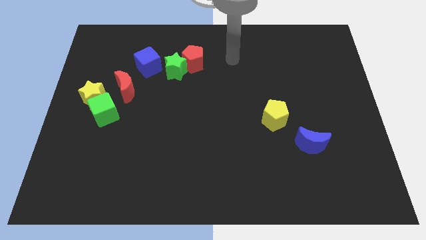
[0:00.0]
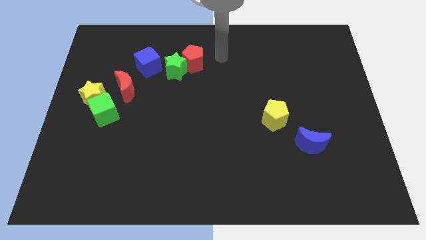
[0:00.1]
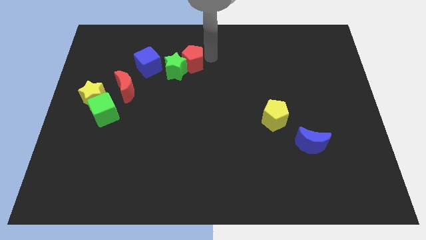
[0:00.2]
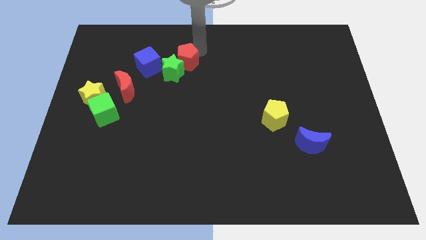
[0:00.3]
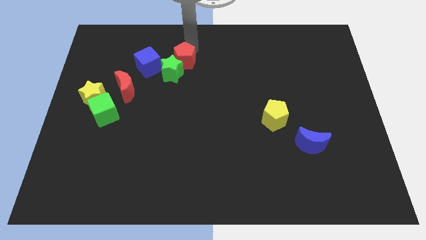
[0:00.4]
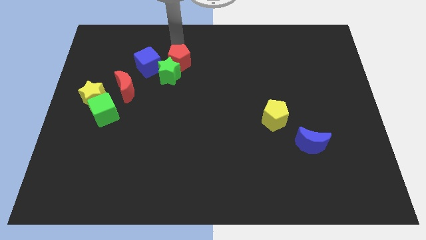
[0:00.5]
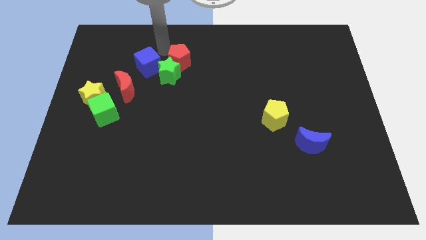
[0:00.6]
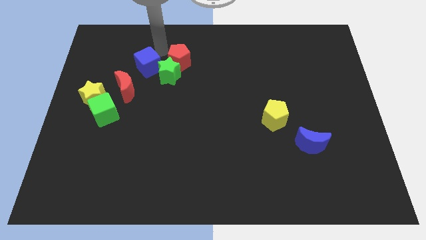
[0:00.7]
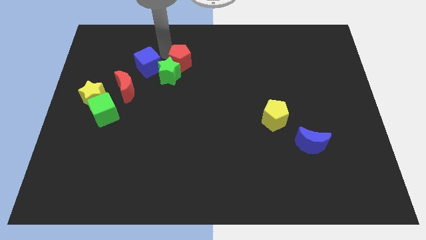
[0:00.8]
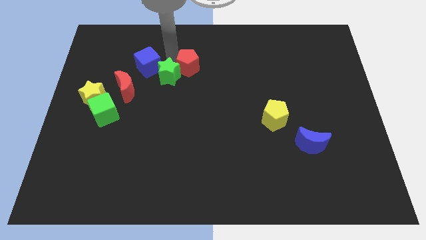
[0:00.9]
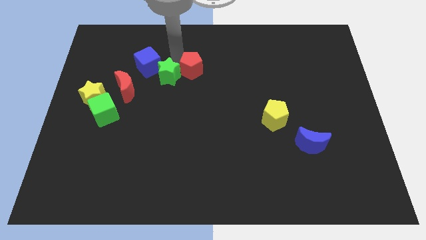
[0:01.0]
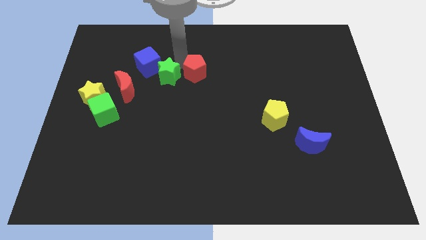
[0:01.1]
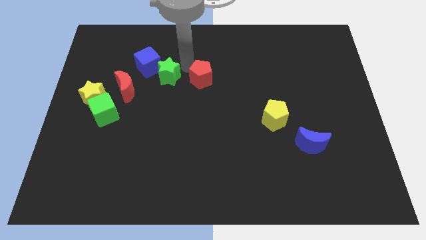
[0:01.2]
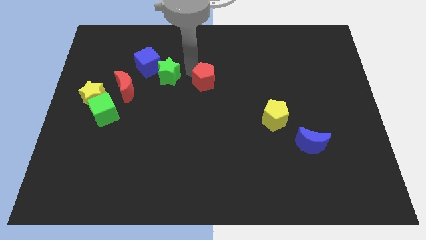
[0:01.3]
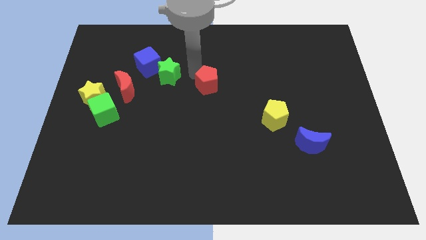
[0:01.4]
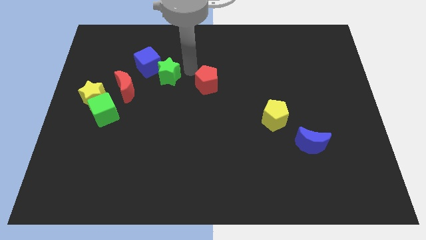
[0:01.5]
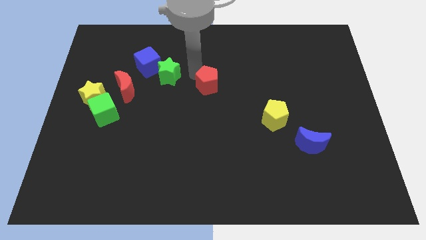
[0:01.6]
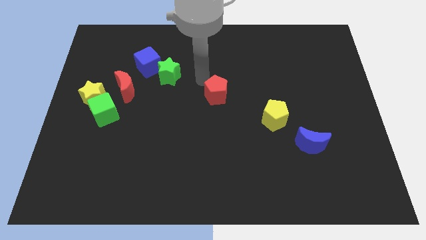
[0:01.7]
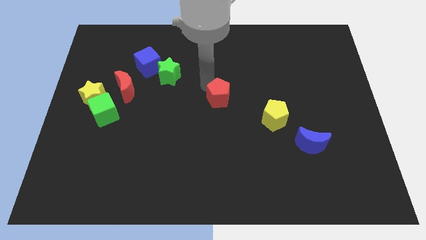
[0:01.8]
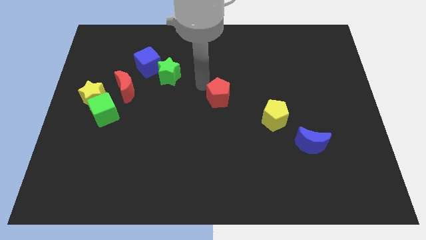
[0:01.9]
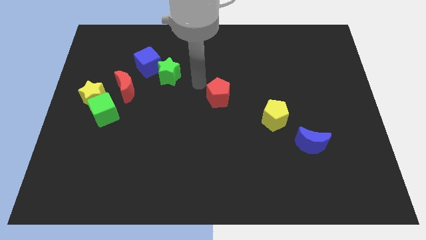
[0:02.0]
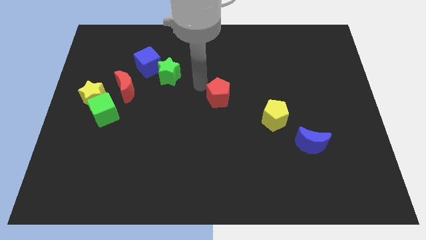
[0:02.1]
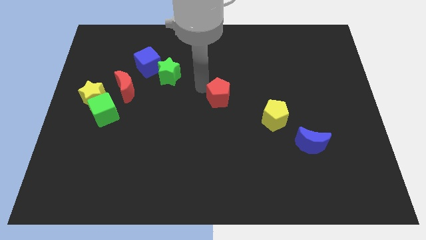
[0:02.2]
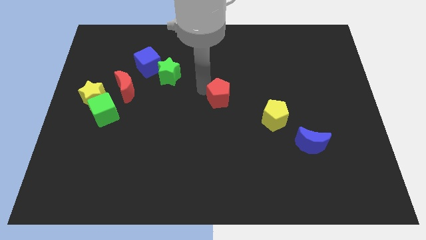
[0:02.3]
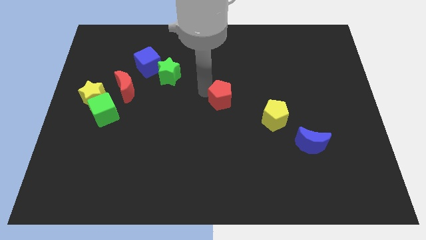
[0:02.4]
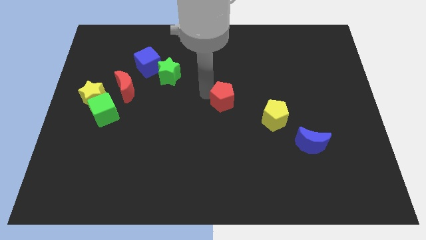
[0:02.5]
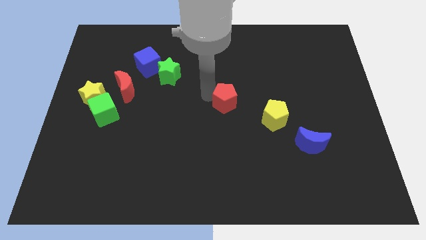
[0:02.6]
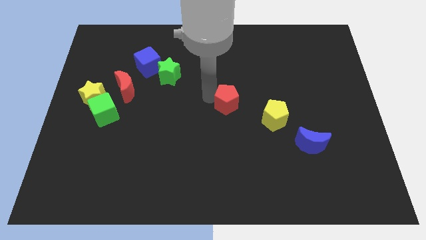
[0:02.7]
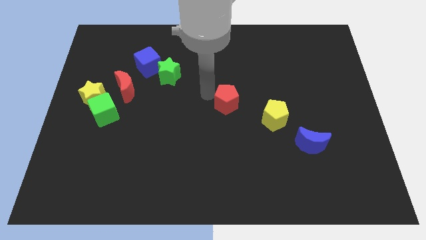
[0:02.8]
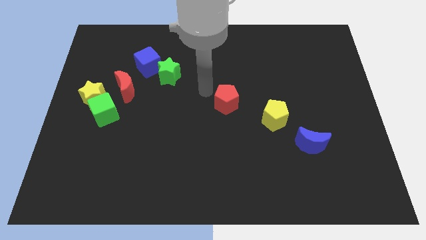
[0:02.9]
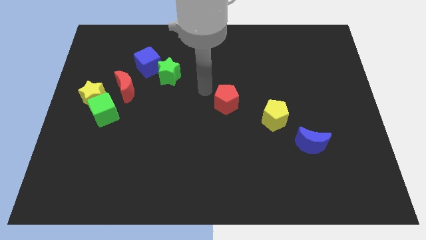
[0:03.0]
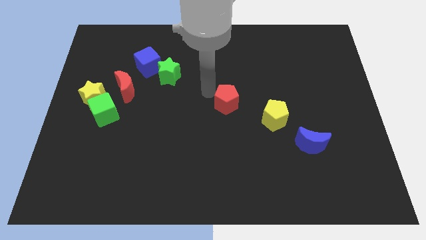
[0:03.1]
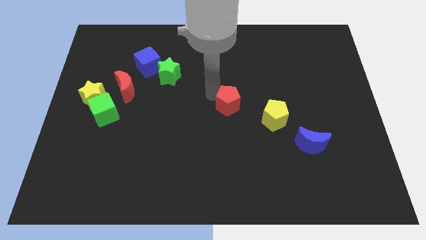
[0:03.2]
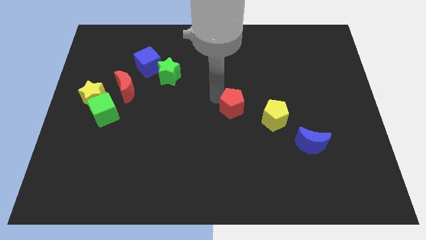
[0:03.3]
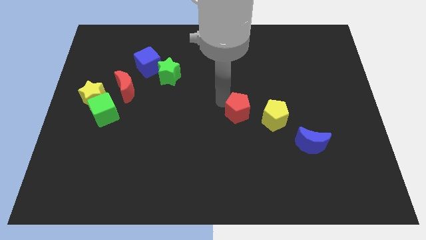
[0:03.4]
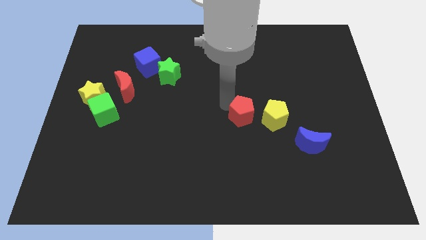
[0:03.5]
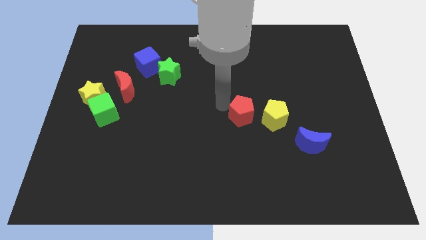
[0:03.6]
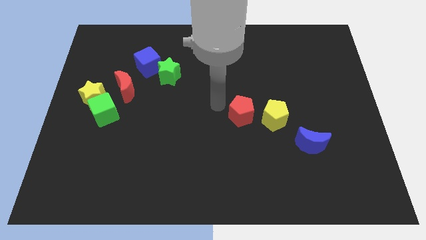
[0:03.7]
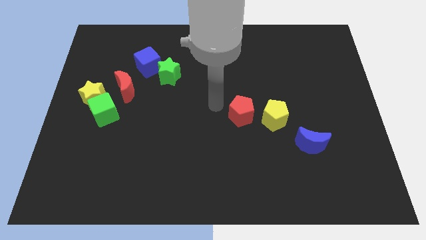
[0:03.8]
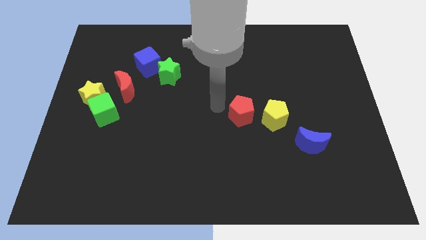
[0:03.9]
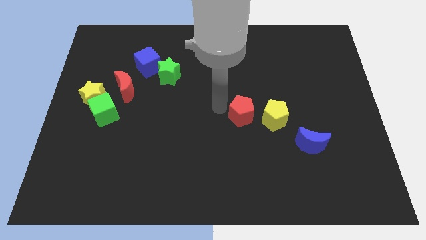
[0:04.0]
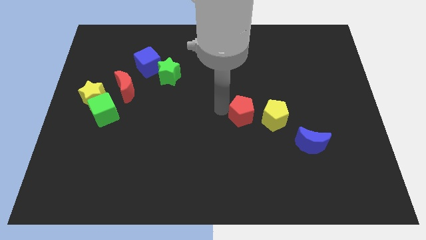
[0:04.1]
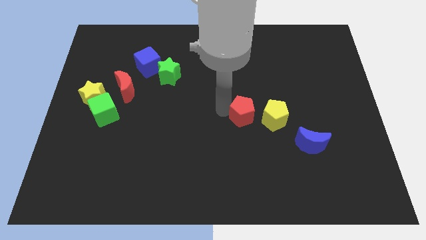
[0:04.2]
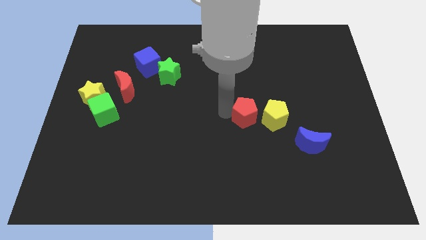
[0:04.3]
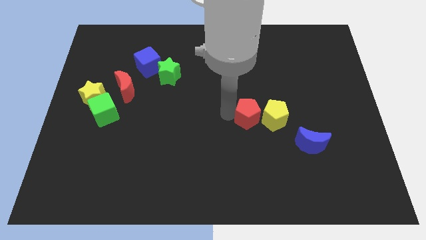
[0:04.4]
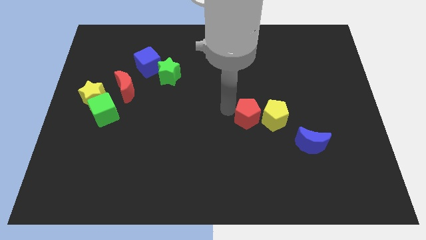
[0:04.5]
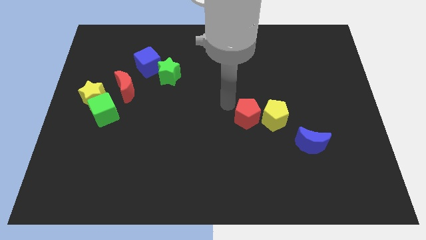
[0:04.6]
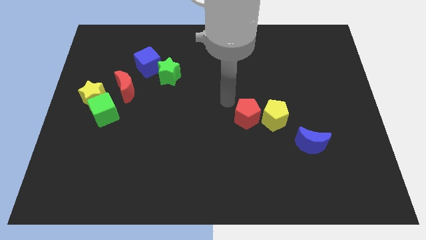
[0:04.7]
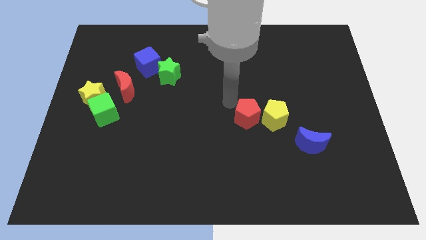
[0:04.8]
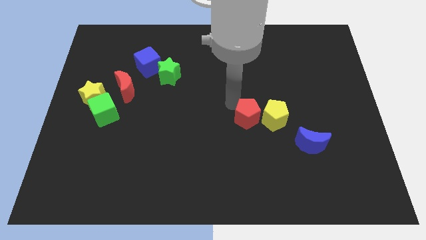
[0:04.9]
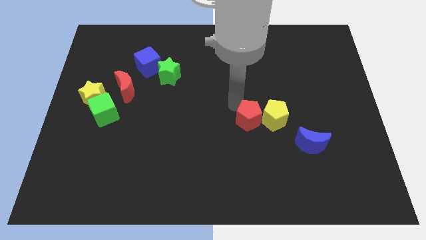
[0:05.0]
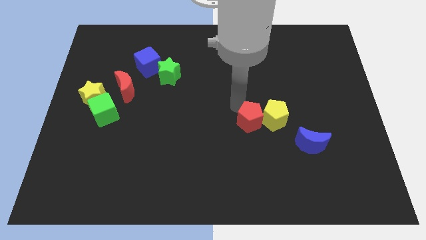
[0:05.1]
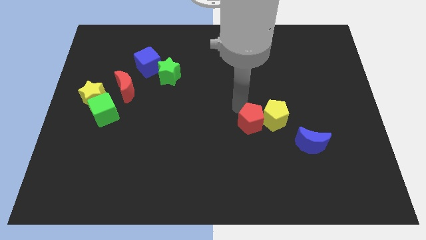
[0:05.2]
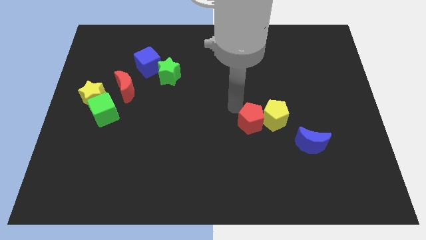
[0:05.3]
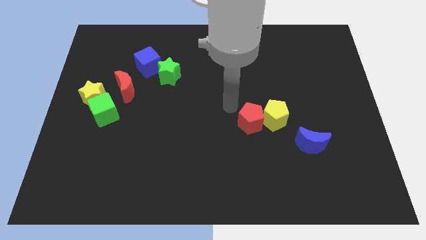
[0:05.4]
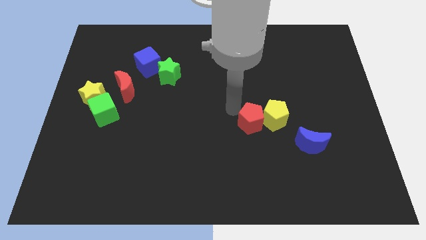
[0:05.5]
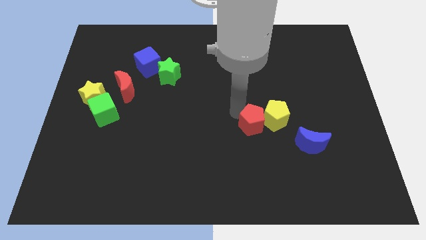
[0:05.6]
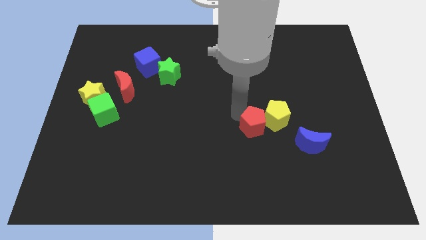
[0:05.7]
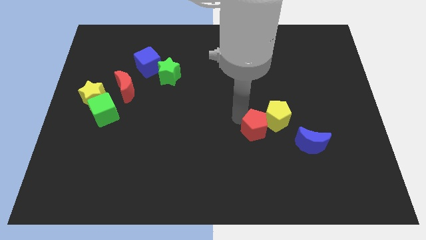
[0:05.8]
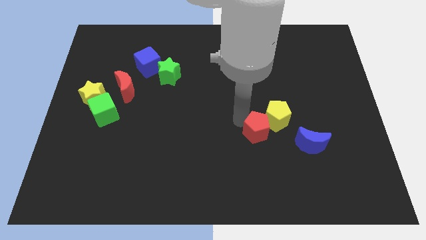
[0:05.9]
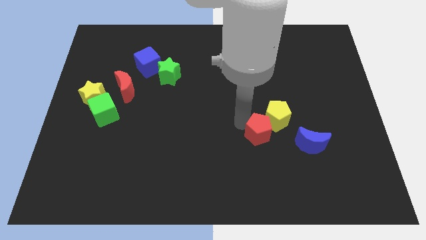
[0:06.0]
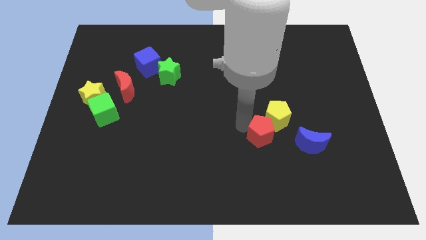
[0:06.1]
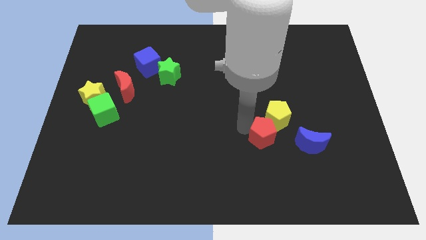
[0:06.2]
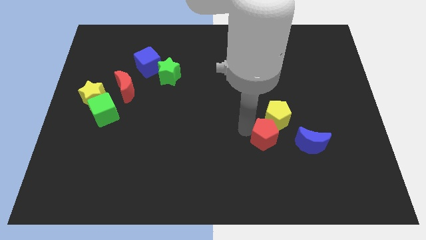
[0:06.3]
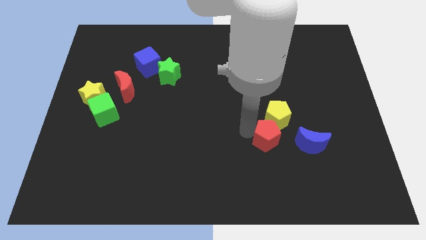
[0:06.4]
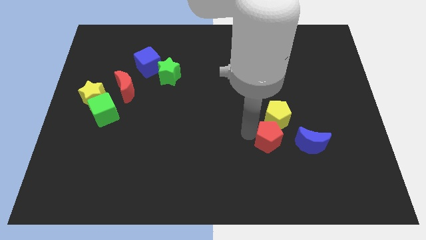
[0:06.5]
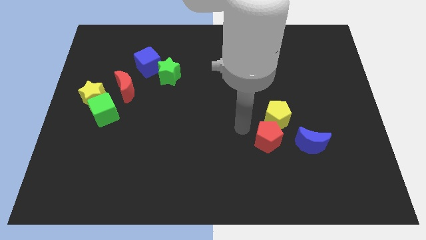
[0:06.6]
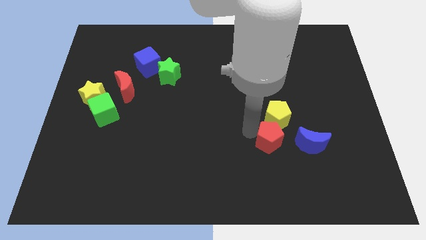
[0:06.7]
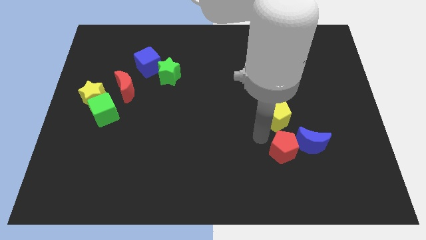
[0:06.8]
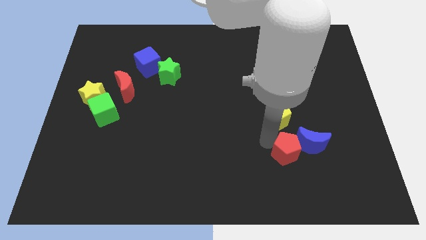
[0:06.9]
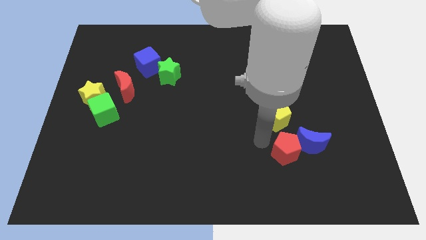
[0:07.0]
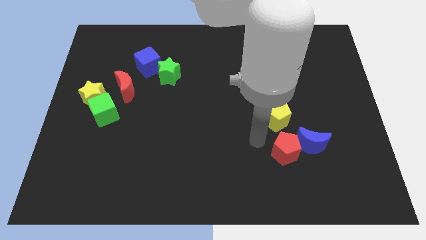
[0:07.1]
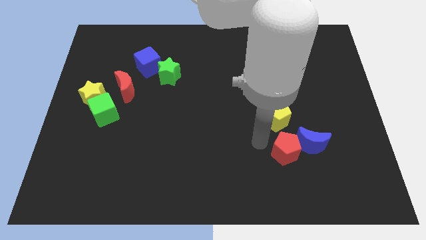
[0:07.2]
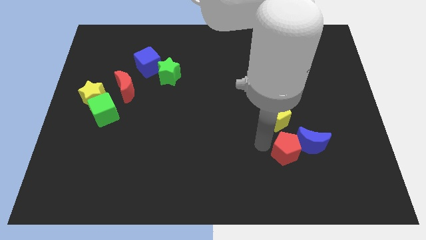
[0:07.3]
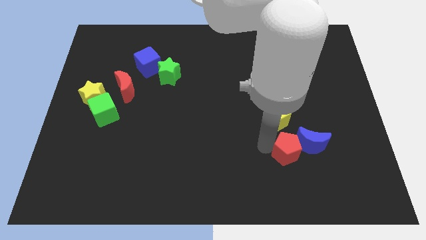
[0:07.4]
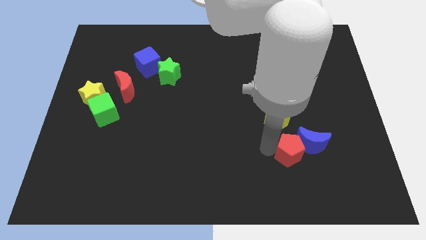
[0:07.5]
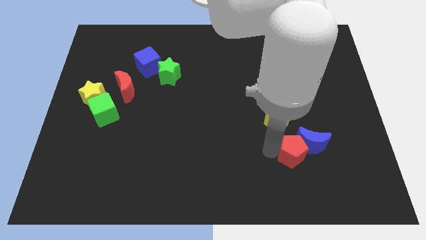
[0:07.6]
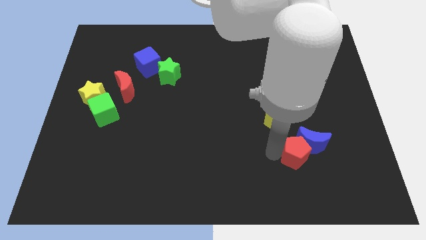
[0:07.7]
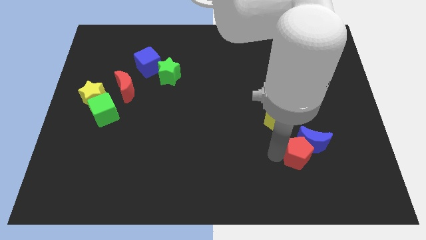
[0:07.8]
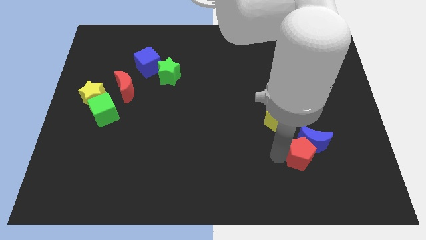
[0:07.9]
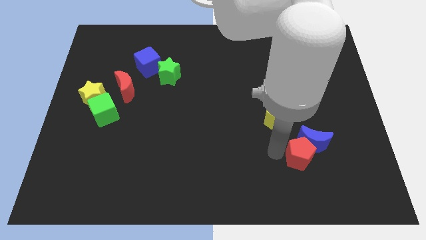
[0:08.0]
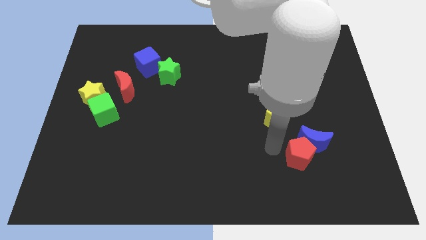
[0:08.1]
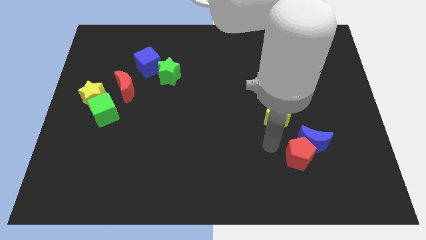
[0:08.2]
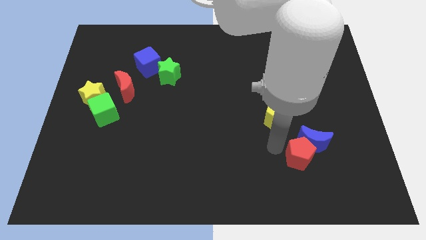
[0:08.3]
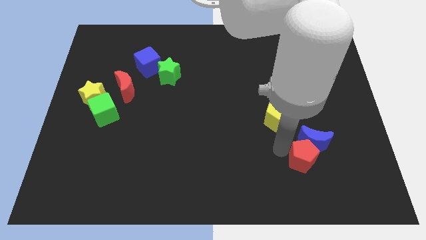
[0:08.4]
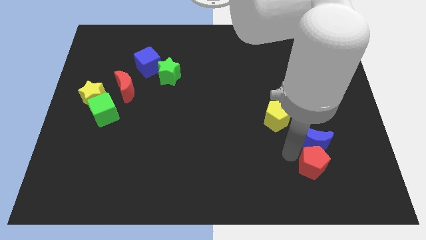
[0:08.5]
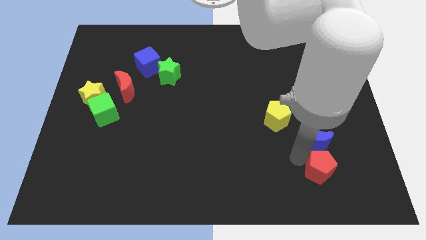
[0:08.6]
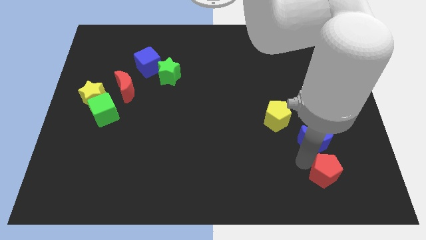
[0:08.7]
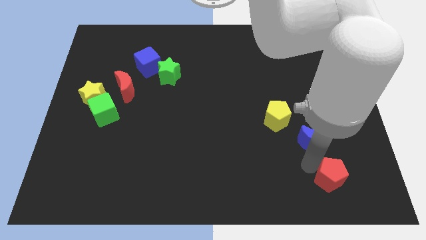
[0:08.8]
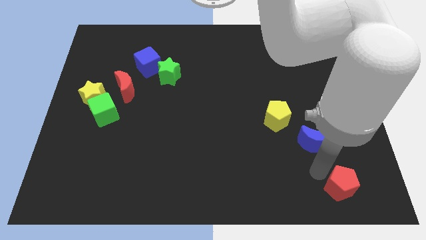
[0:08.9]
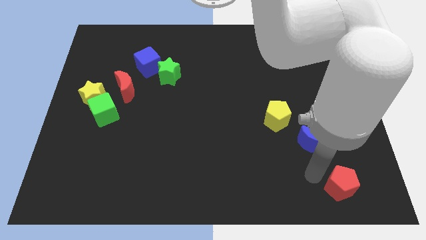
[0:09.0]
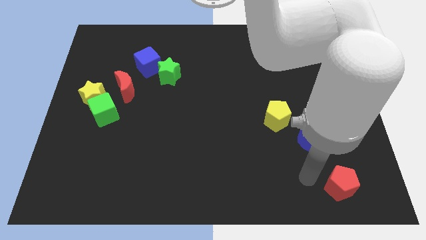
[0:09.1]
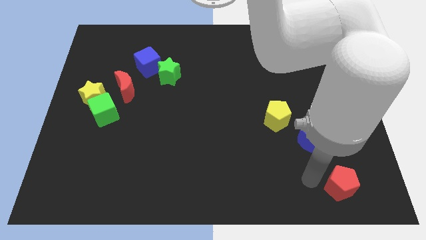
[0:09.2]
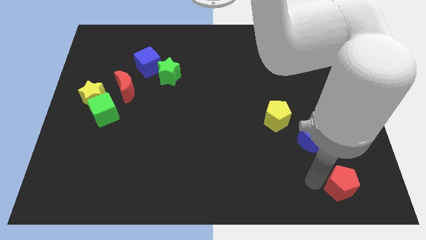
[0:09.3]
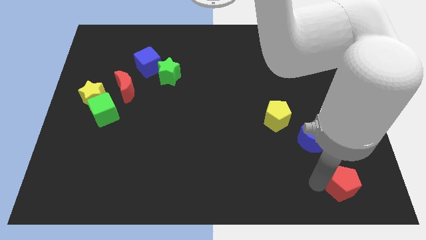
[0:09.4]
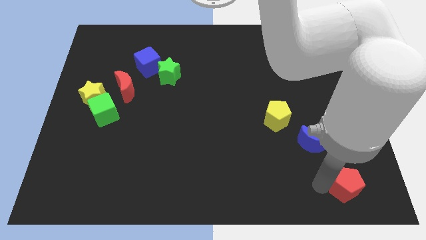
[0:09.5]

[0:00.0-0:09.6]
move the red pentagon to the bottom right corner
